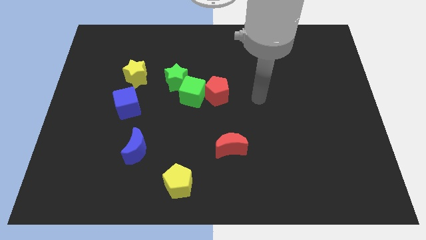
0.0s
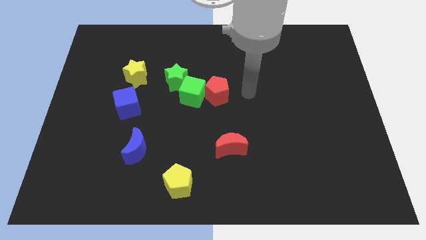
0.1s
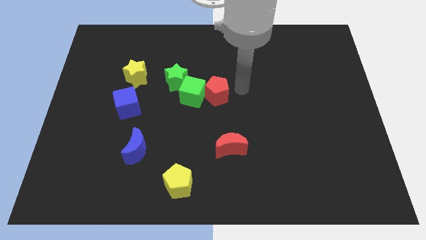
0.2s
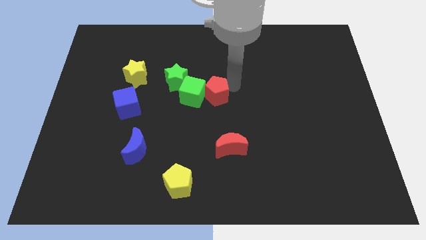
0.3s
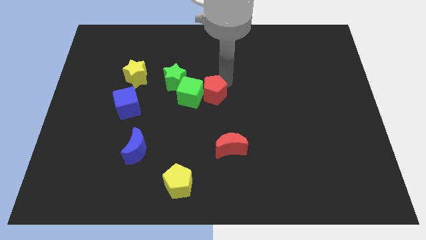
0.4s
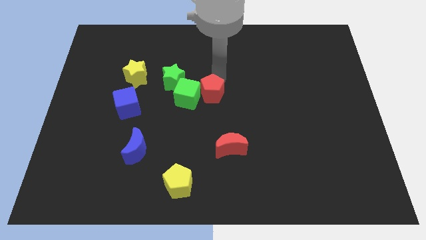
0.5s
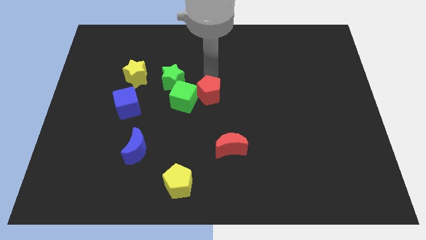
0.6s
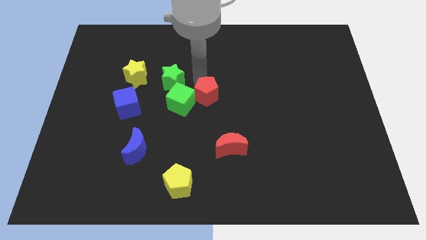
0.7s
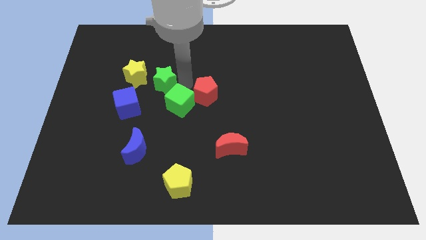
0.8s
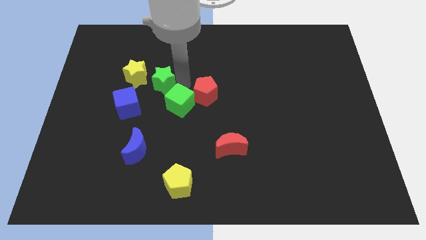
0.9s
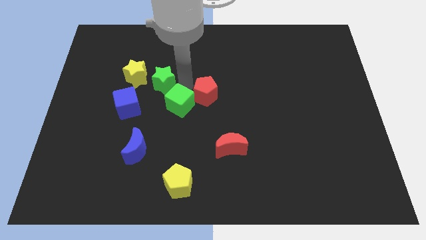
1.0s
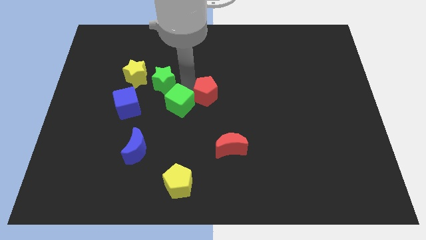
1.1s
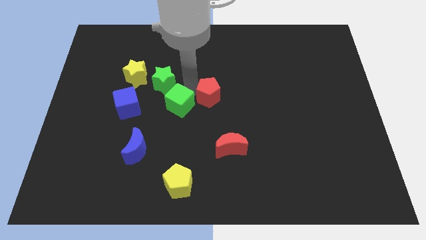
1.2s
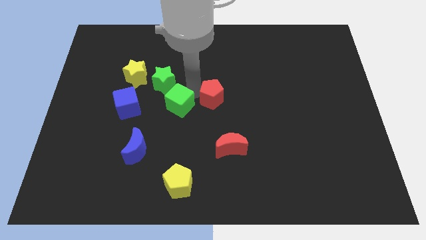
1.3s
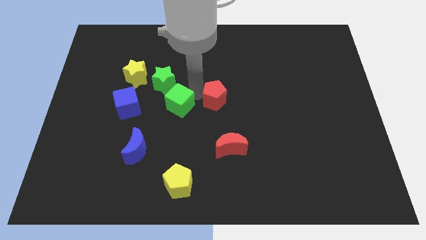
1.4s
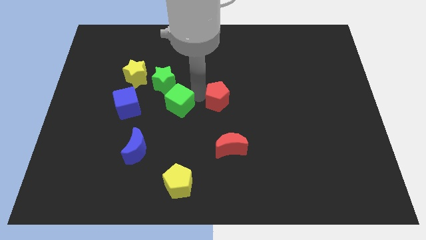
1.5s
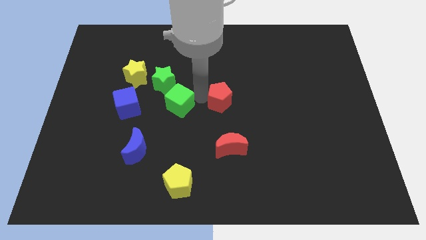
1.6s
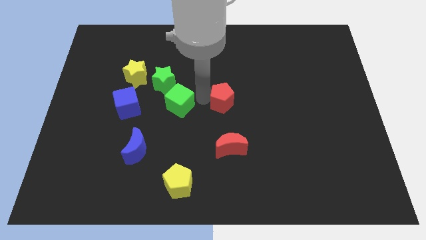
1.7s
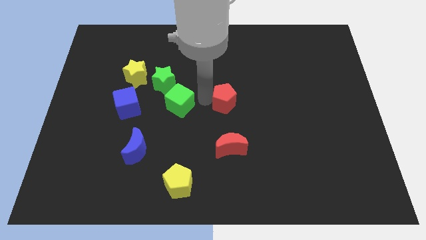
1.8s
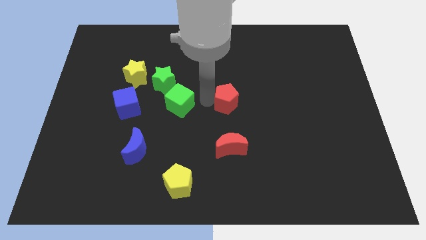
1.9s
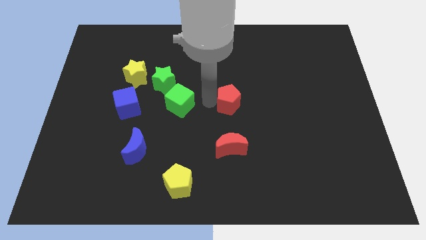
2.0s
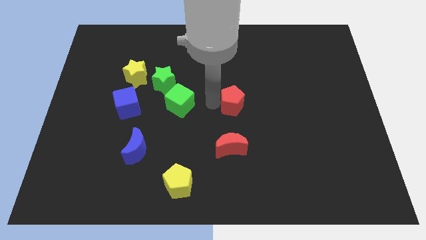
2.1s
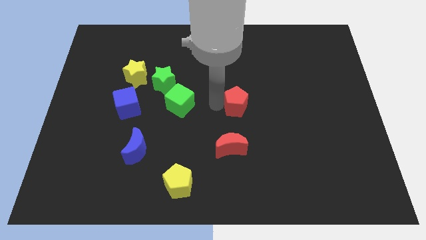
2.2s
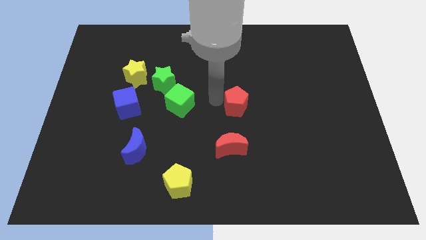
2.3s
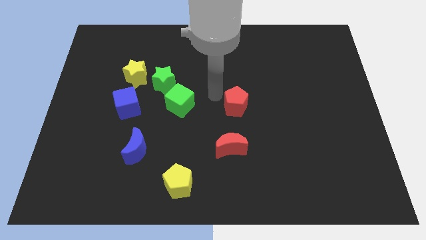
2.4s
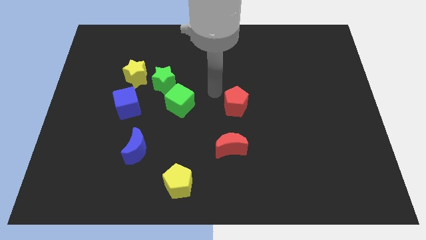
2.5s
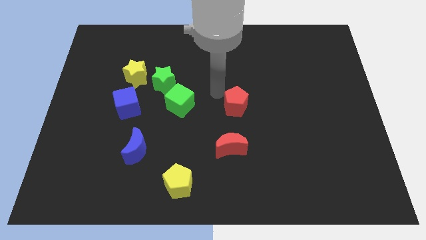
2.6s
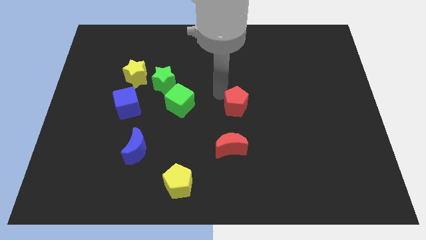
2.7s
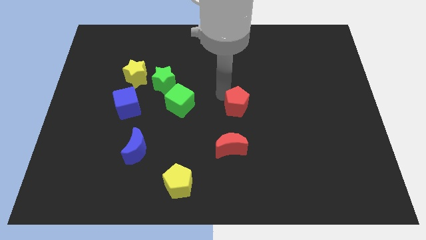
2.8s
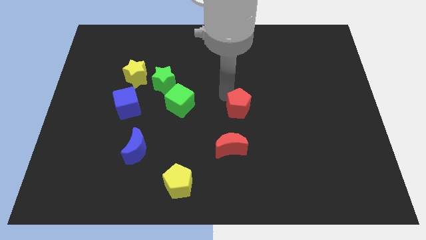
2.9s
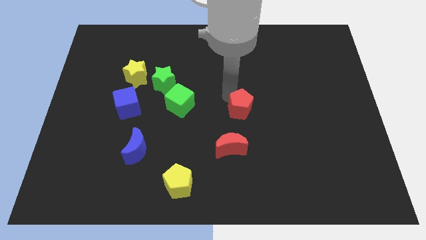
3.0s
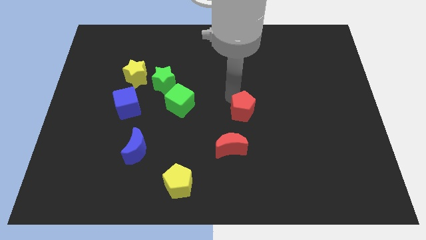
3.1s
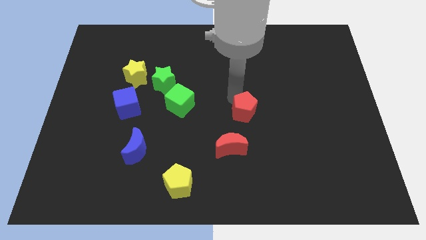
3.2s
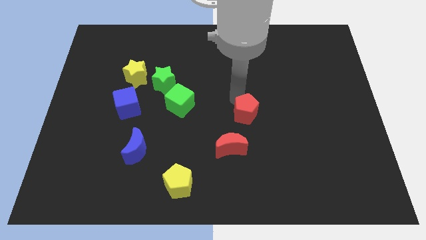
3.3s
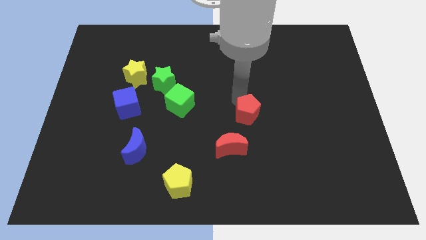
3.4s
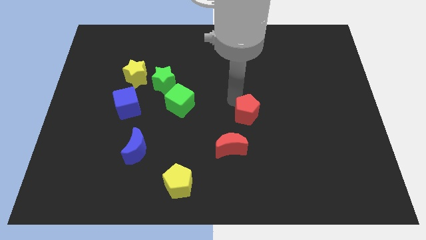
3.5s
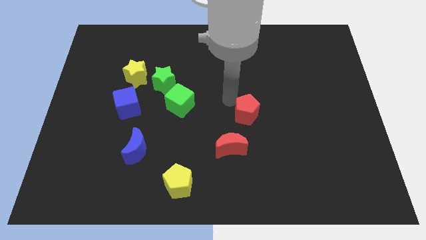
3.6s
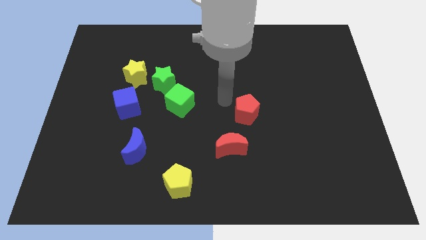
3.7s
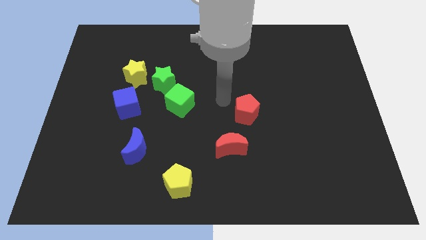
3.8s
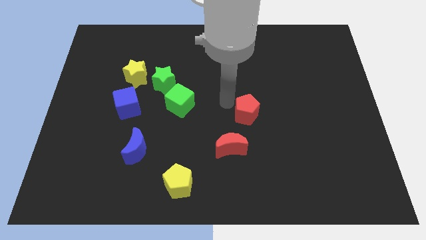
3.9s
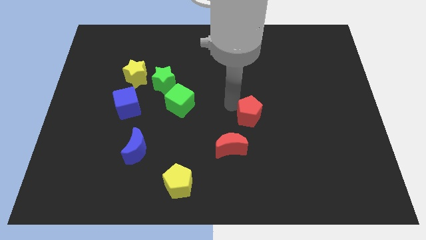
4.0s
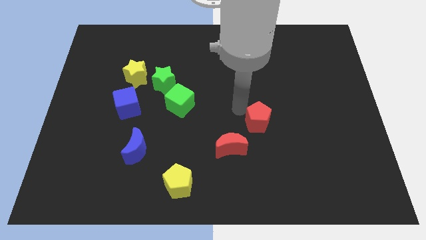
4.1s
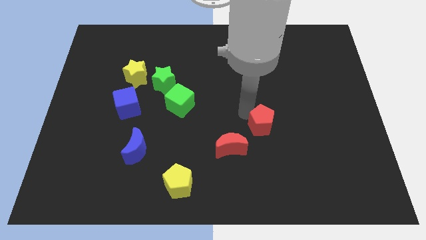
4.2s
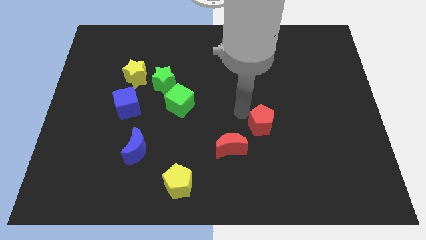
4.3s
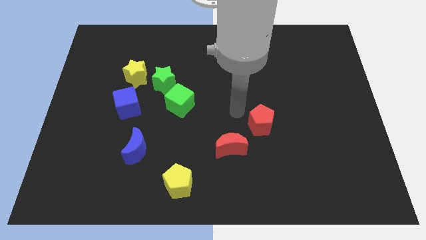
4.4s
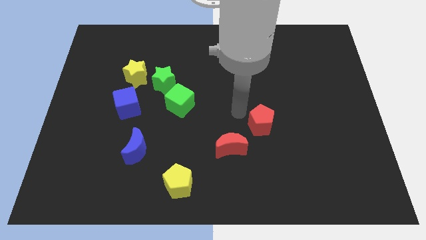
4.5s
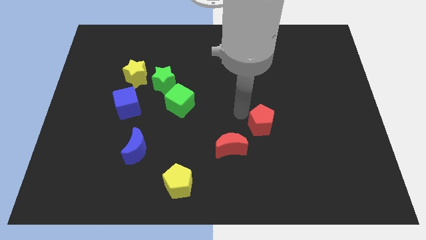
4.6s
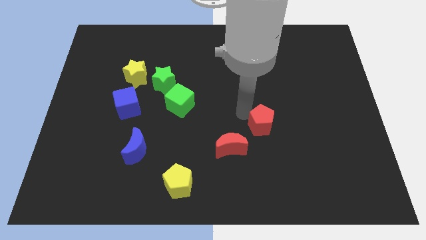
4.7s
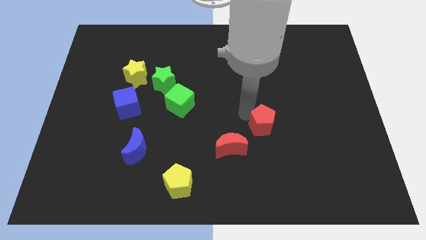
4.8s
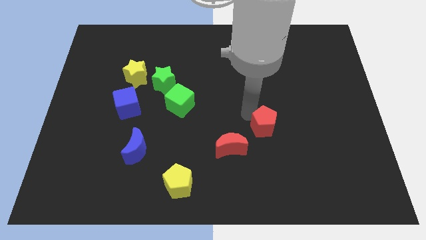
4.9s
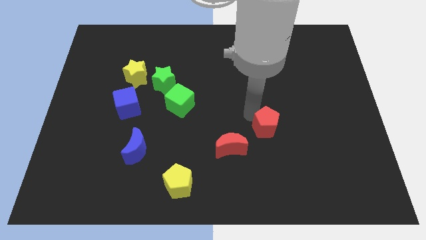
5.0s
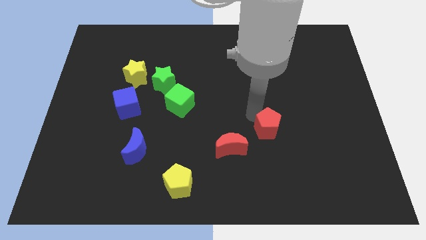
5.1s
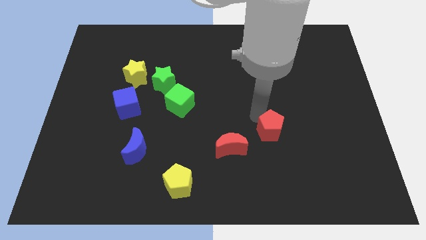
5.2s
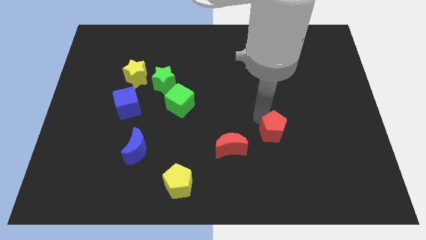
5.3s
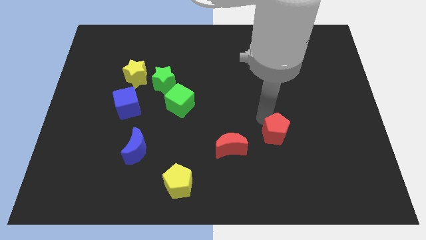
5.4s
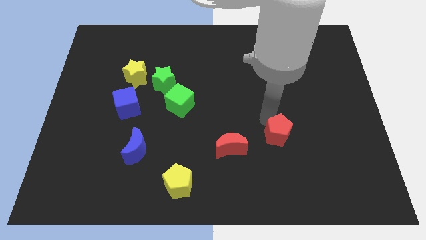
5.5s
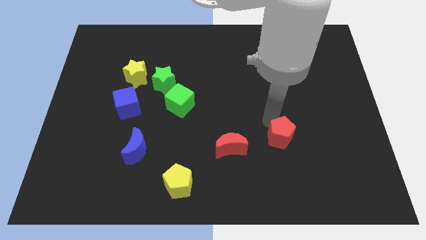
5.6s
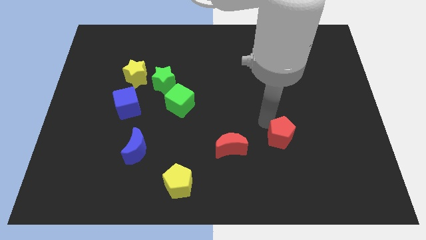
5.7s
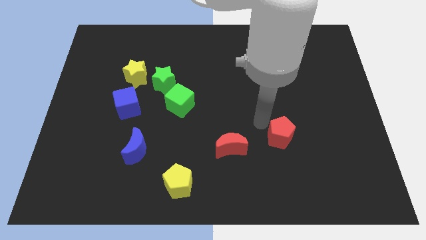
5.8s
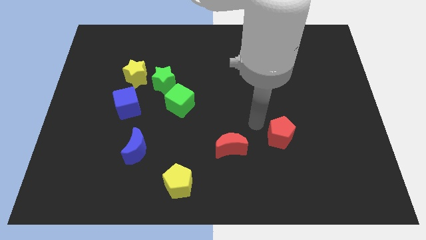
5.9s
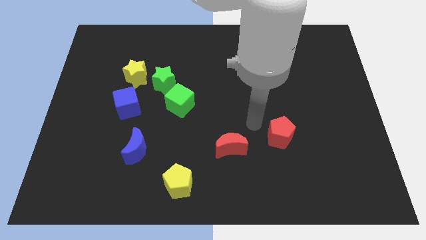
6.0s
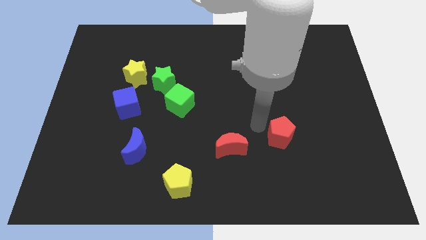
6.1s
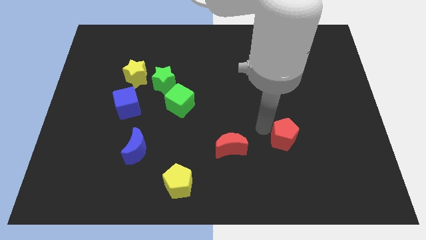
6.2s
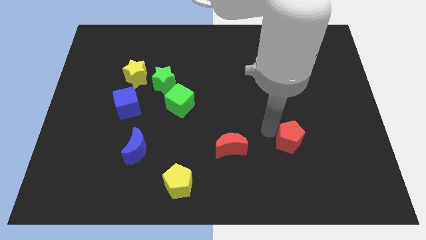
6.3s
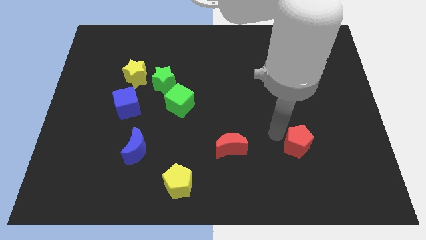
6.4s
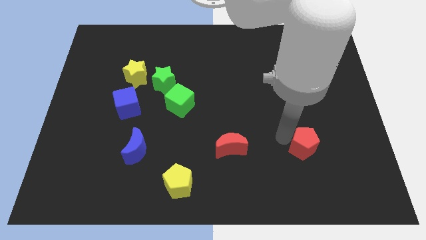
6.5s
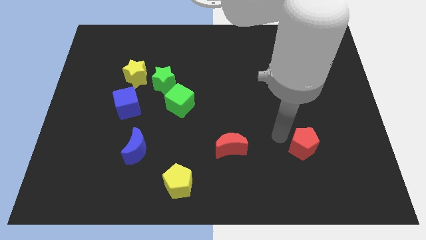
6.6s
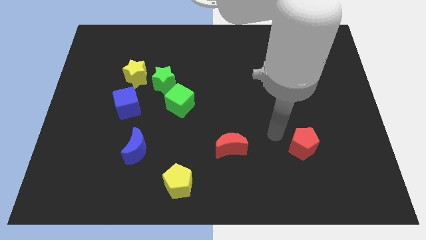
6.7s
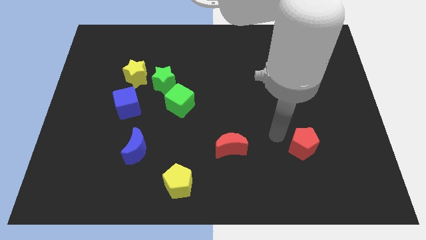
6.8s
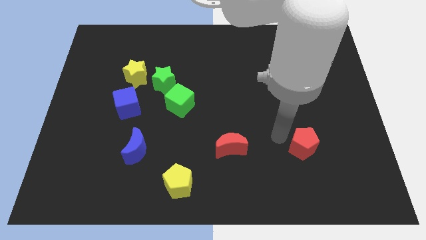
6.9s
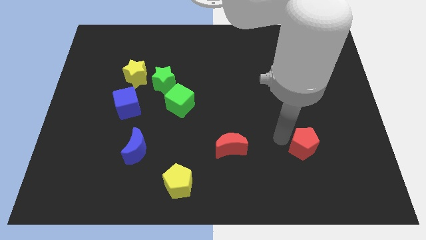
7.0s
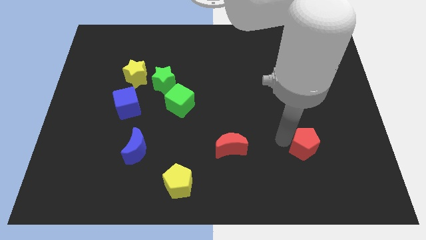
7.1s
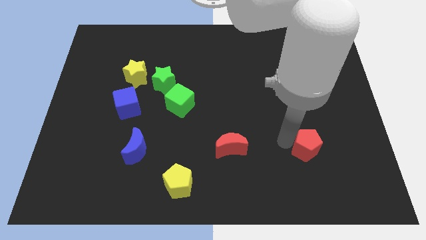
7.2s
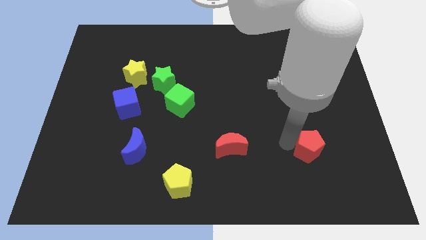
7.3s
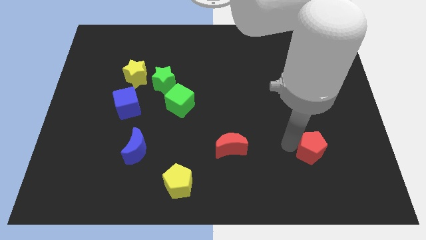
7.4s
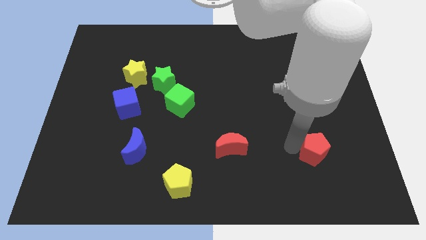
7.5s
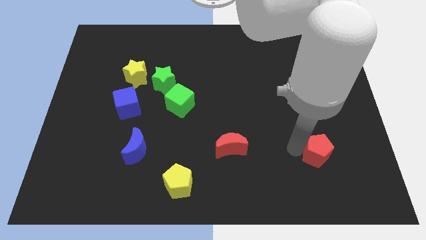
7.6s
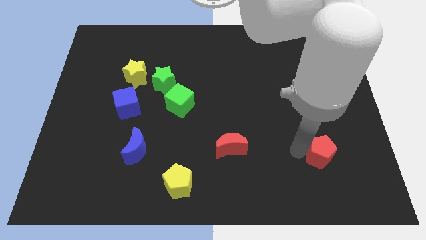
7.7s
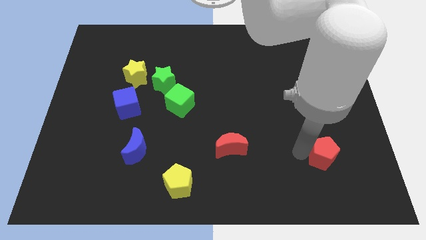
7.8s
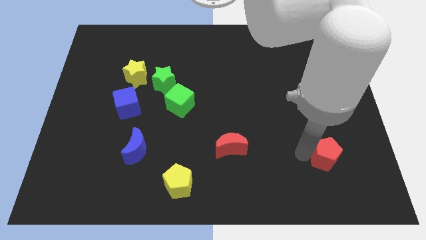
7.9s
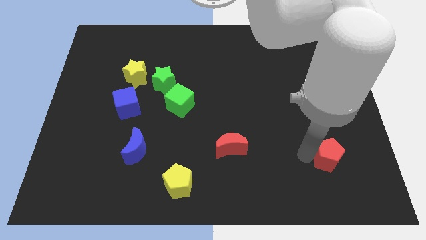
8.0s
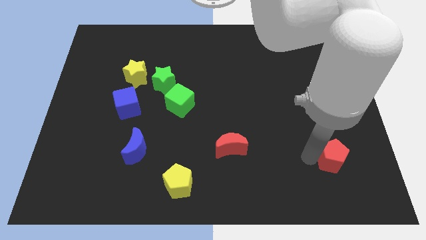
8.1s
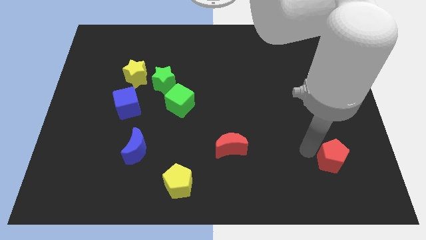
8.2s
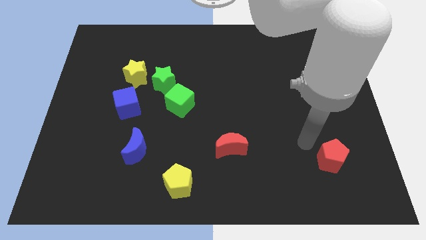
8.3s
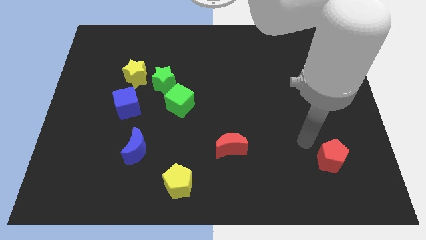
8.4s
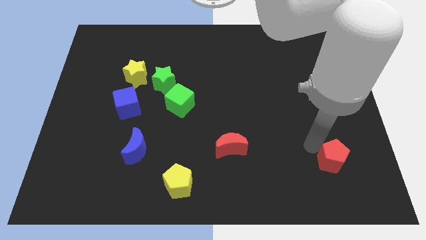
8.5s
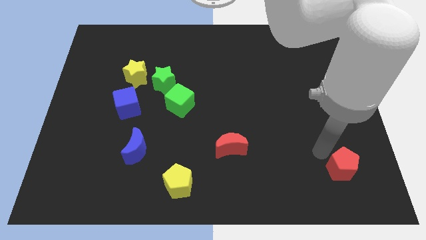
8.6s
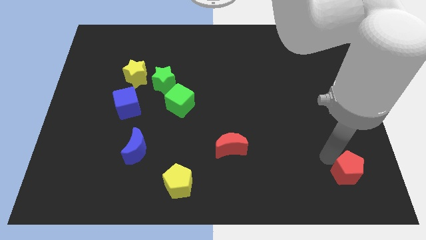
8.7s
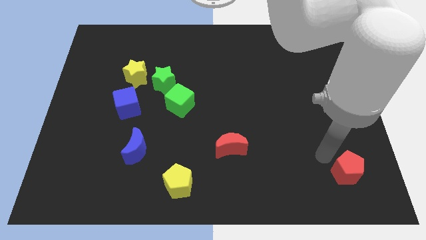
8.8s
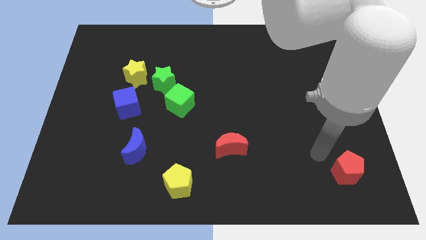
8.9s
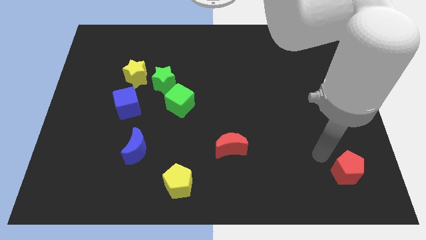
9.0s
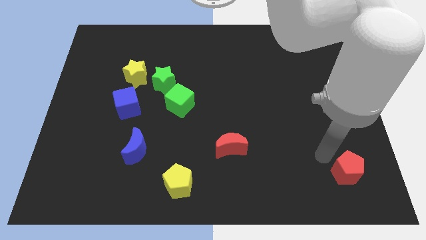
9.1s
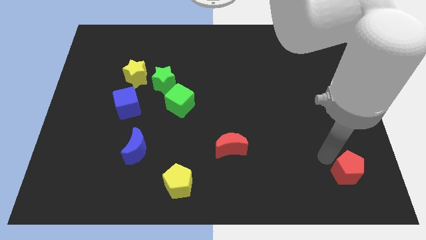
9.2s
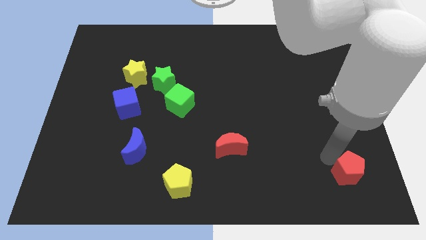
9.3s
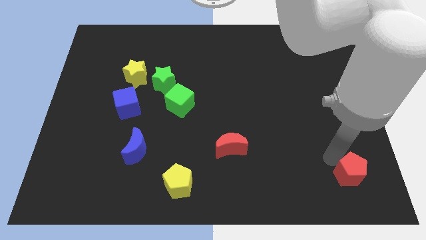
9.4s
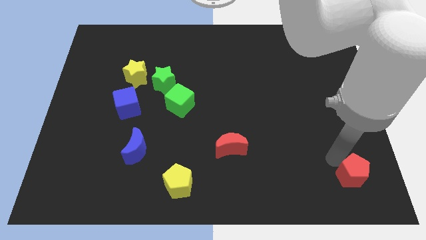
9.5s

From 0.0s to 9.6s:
push the red pentagon to the bottom right corner
